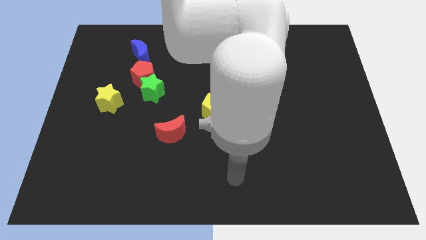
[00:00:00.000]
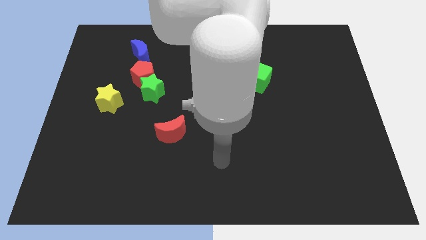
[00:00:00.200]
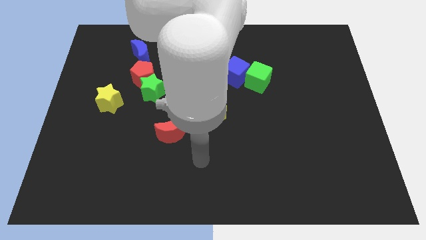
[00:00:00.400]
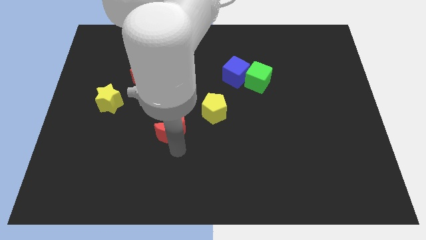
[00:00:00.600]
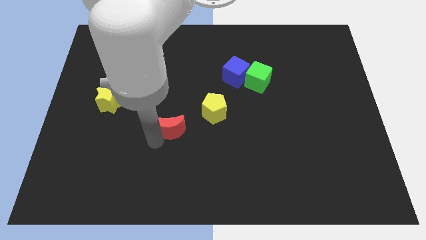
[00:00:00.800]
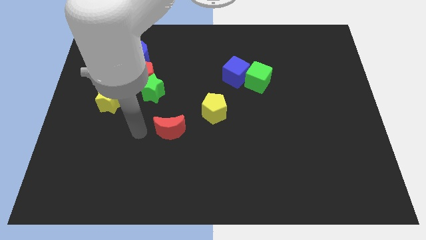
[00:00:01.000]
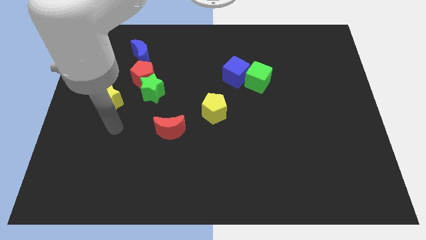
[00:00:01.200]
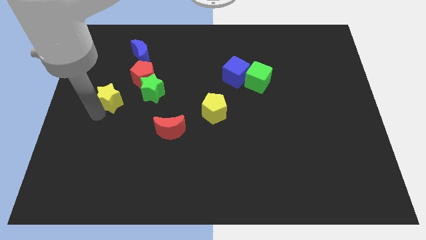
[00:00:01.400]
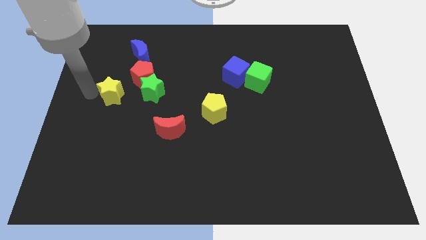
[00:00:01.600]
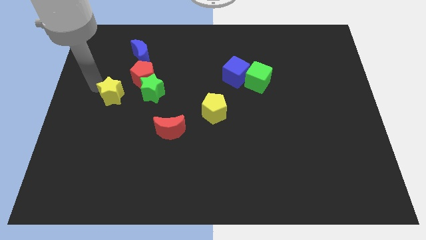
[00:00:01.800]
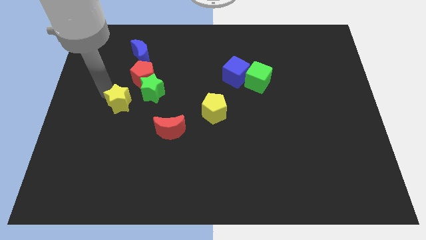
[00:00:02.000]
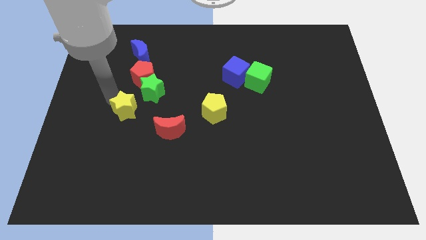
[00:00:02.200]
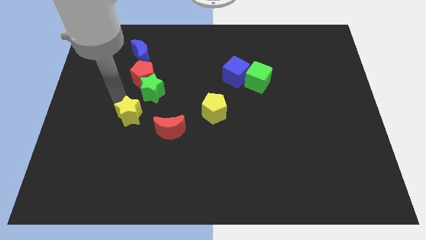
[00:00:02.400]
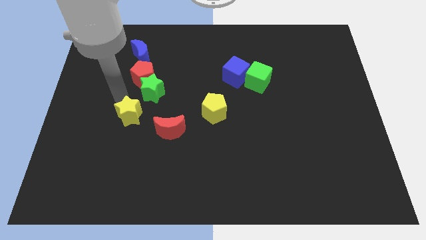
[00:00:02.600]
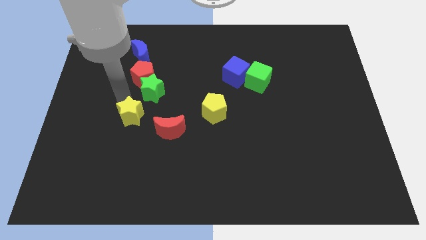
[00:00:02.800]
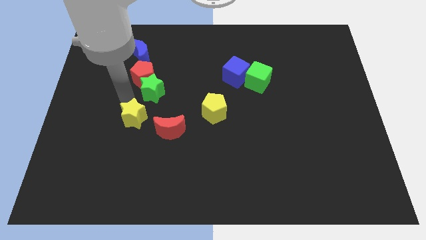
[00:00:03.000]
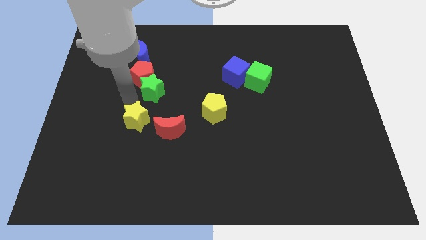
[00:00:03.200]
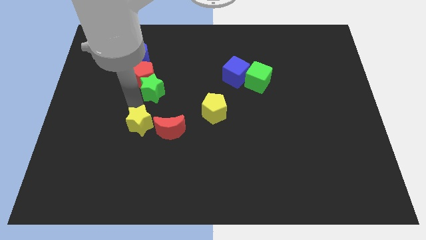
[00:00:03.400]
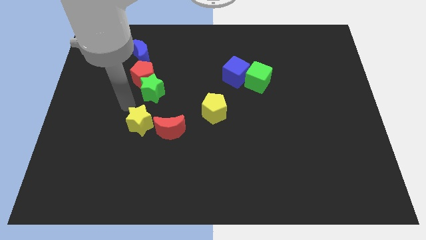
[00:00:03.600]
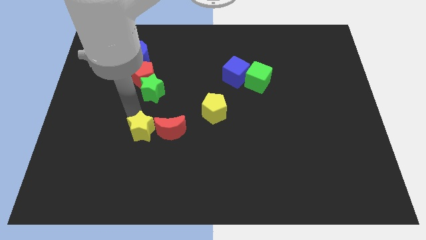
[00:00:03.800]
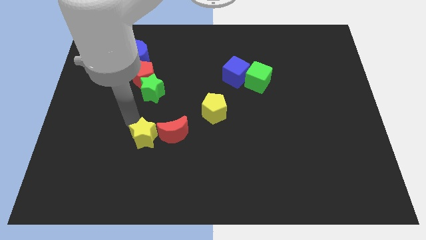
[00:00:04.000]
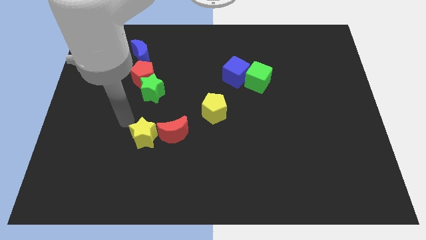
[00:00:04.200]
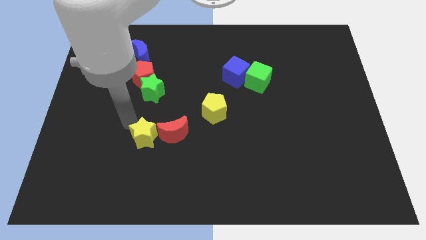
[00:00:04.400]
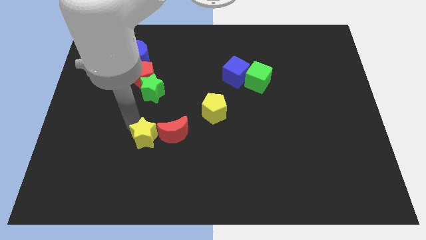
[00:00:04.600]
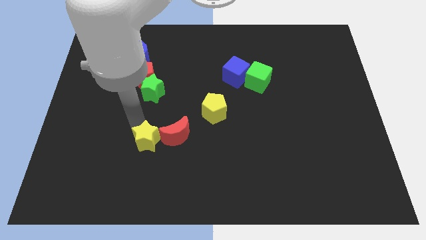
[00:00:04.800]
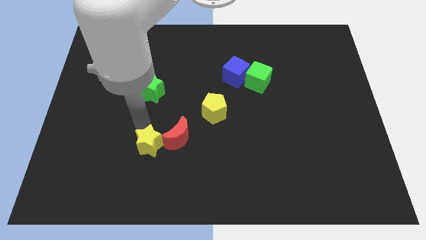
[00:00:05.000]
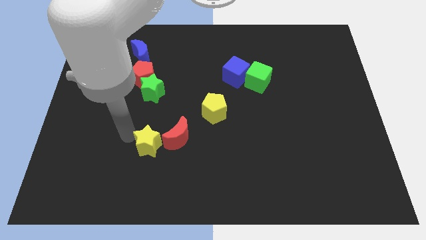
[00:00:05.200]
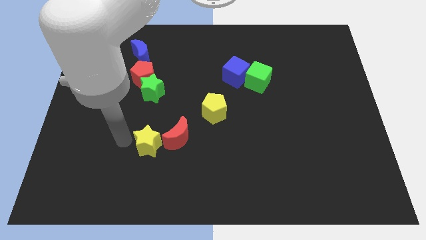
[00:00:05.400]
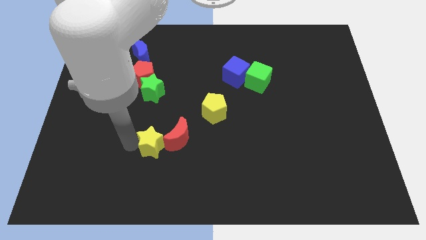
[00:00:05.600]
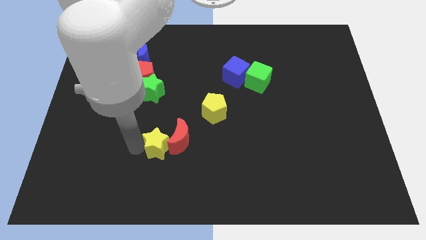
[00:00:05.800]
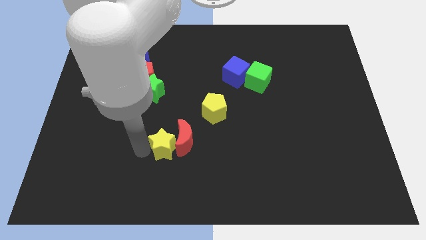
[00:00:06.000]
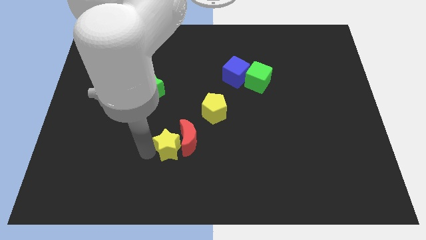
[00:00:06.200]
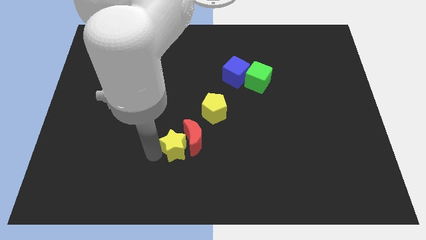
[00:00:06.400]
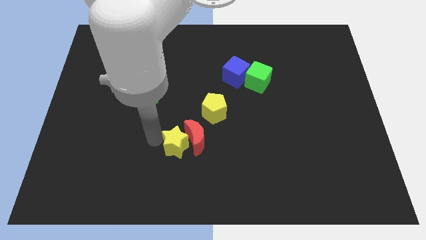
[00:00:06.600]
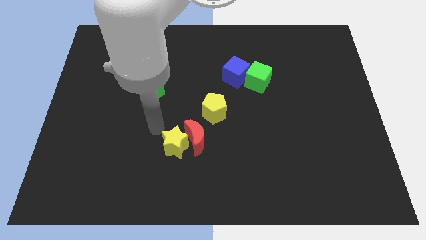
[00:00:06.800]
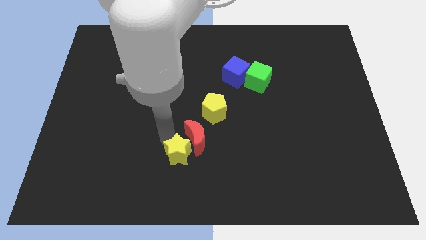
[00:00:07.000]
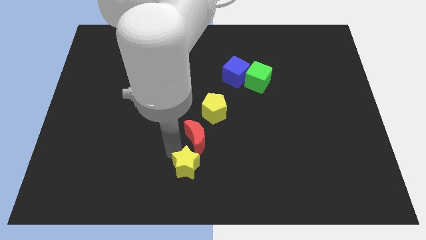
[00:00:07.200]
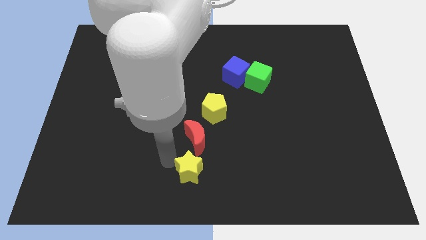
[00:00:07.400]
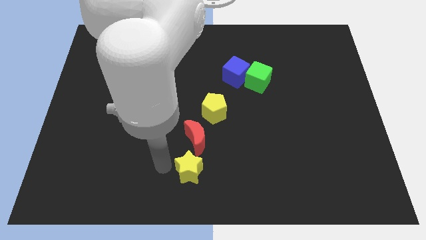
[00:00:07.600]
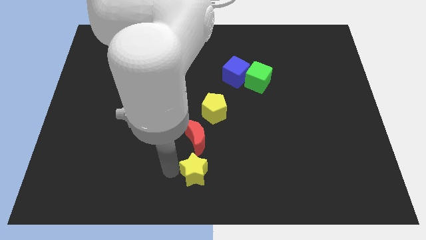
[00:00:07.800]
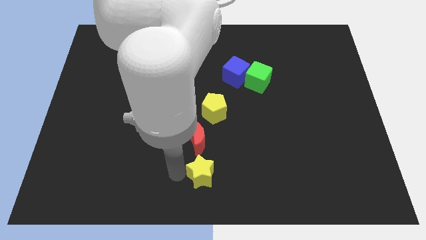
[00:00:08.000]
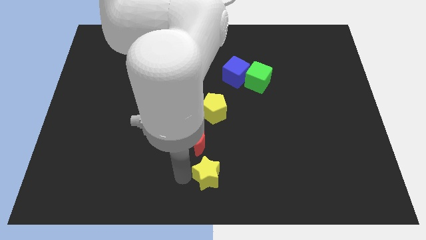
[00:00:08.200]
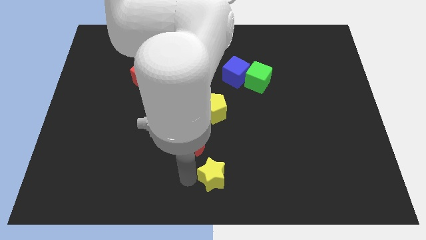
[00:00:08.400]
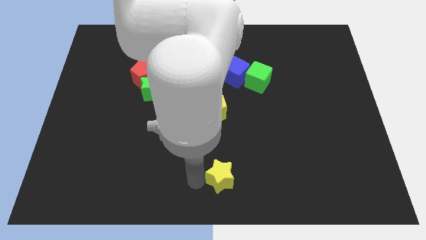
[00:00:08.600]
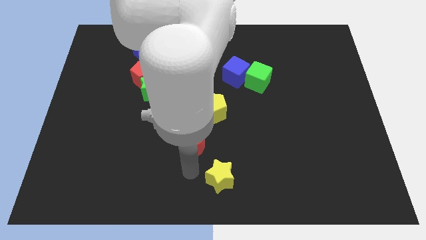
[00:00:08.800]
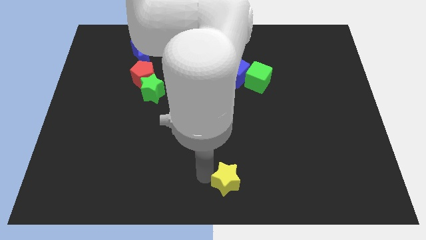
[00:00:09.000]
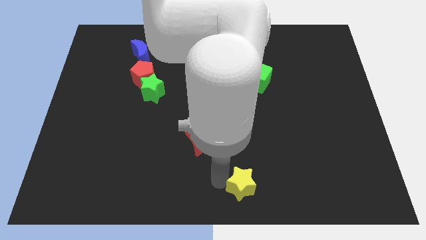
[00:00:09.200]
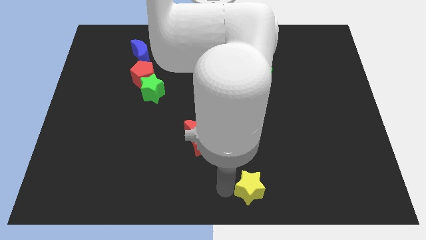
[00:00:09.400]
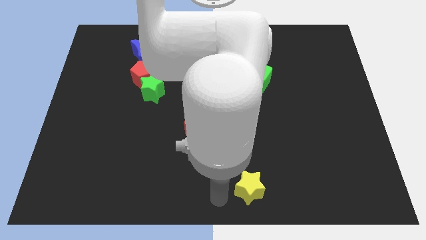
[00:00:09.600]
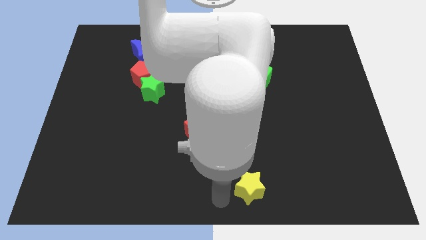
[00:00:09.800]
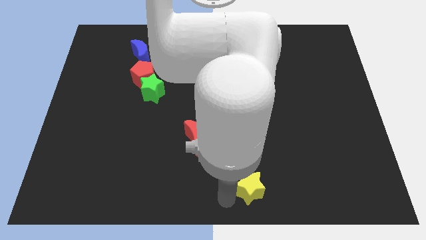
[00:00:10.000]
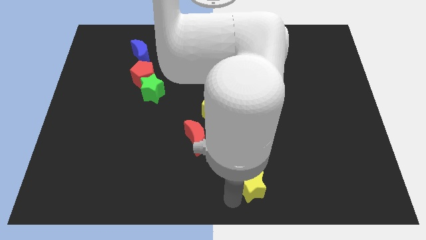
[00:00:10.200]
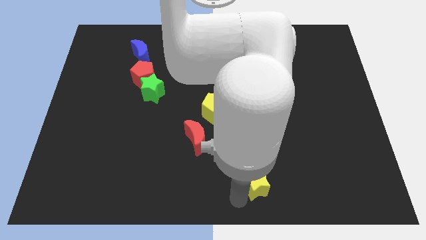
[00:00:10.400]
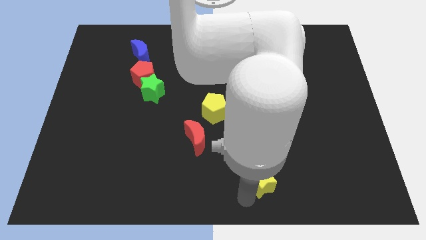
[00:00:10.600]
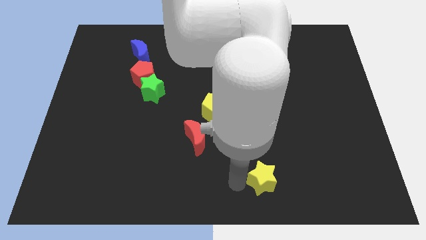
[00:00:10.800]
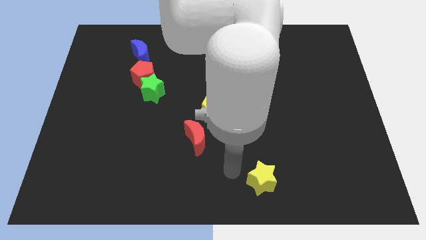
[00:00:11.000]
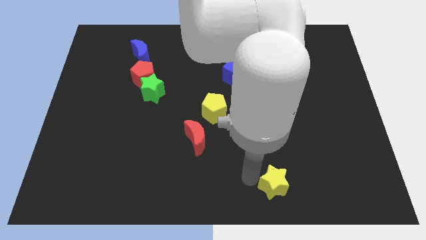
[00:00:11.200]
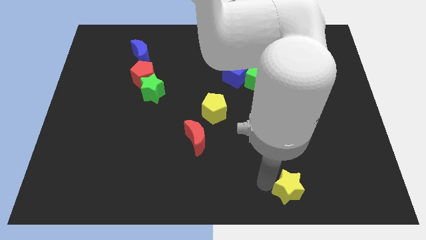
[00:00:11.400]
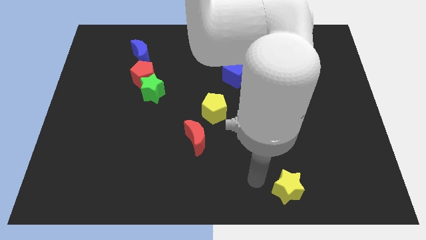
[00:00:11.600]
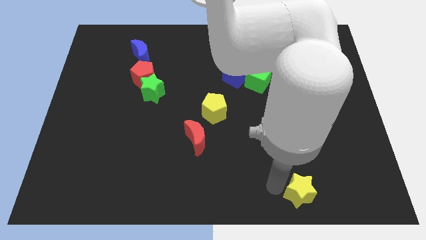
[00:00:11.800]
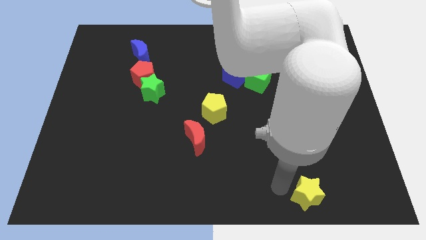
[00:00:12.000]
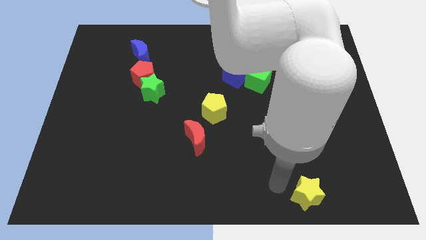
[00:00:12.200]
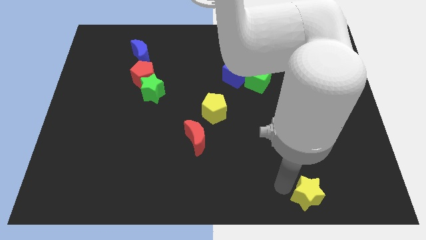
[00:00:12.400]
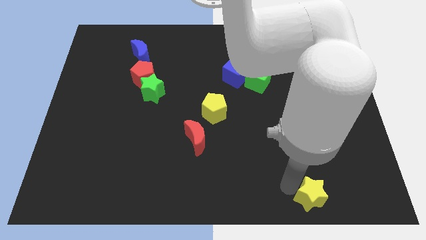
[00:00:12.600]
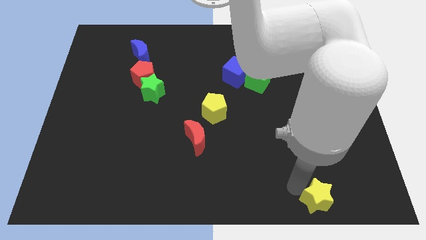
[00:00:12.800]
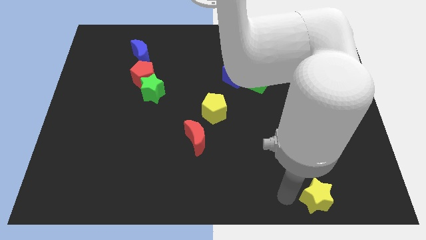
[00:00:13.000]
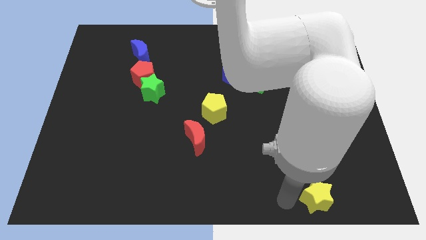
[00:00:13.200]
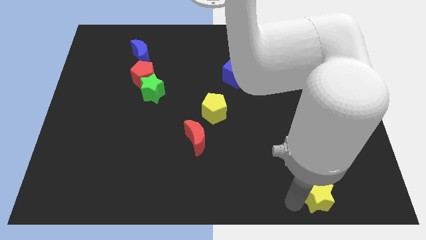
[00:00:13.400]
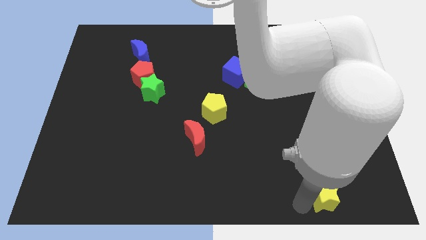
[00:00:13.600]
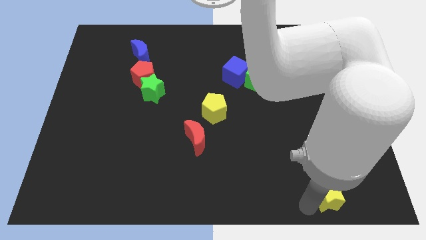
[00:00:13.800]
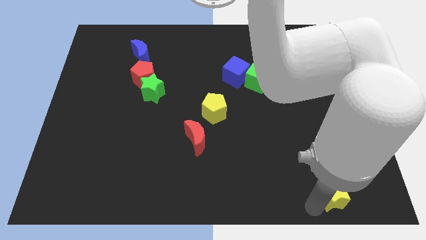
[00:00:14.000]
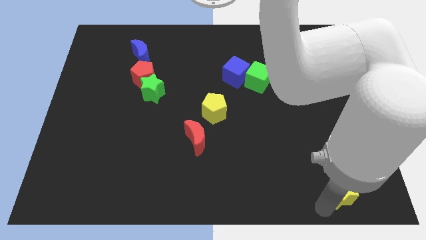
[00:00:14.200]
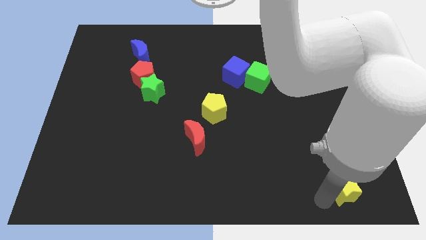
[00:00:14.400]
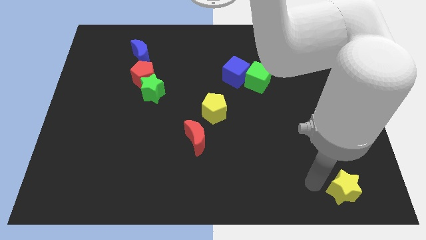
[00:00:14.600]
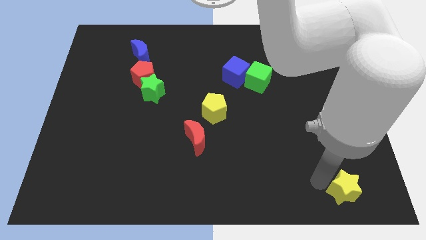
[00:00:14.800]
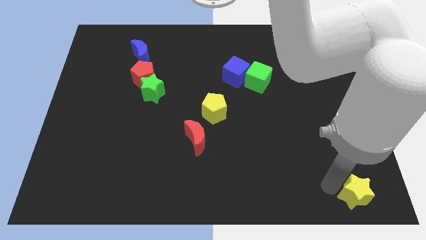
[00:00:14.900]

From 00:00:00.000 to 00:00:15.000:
slide the yellow star to the lower right corner
